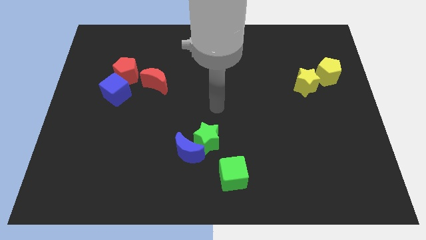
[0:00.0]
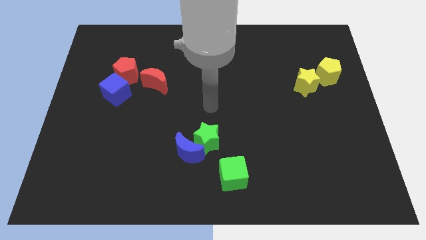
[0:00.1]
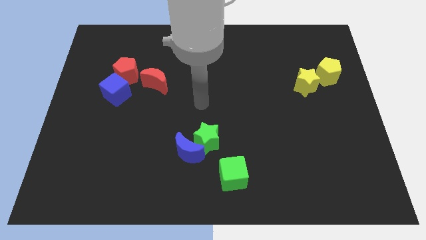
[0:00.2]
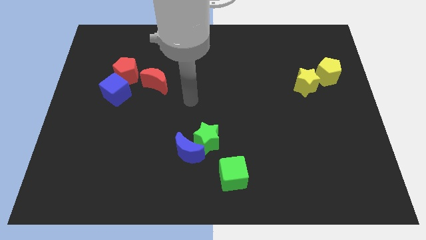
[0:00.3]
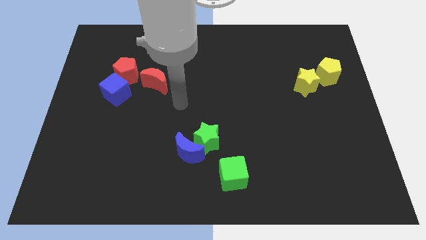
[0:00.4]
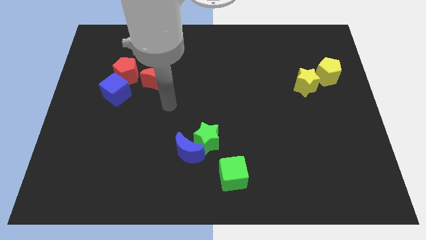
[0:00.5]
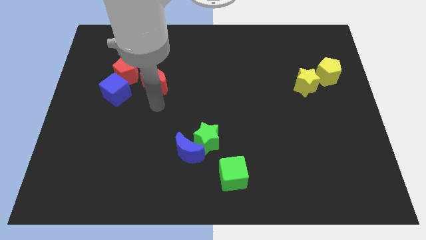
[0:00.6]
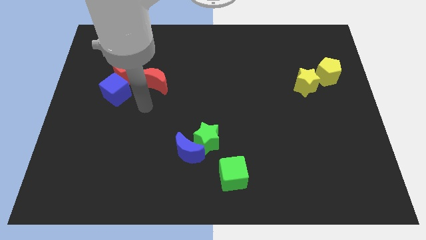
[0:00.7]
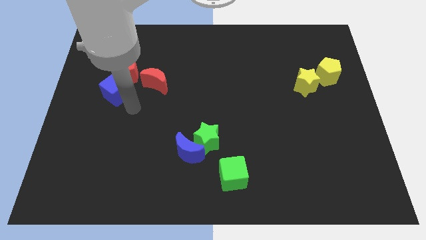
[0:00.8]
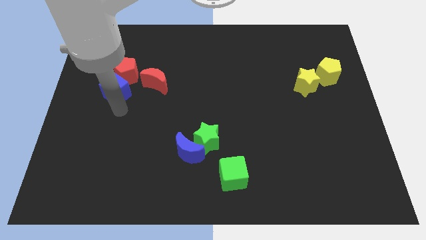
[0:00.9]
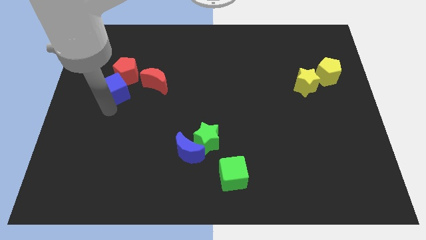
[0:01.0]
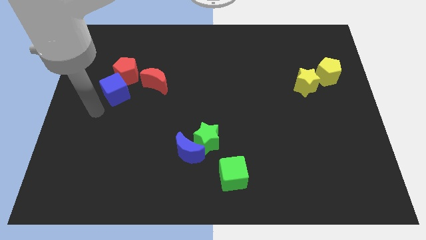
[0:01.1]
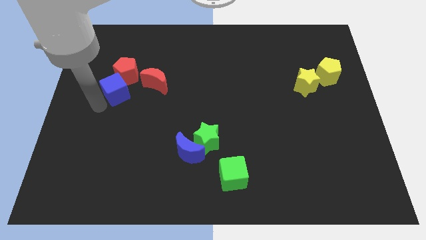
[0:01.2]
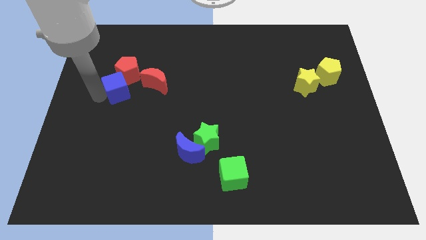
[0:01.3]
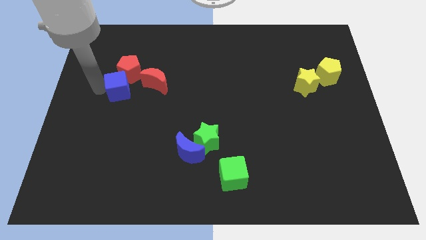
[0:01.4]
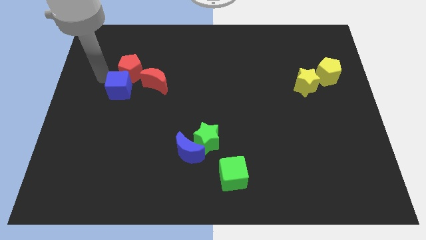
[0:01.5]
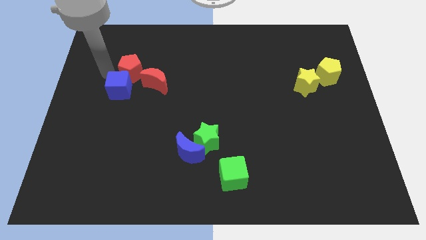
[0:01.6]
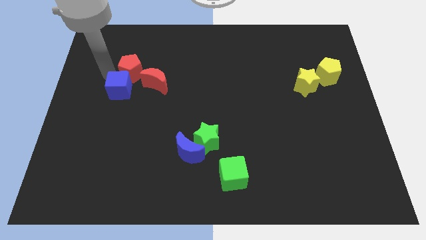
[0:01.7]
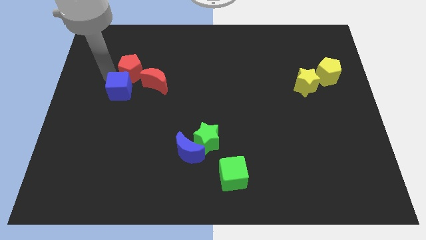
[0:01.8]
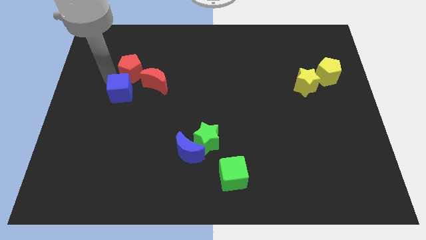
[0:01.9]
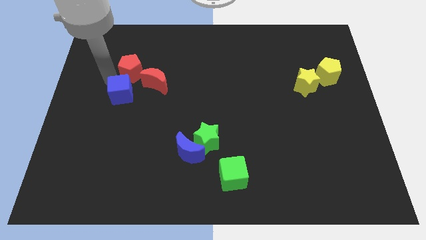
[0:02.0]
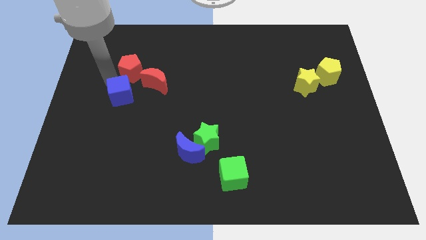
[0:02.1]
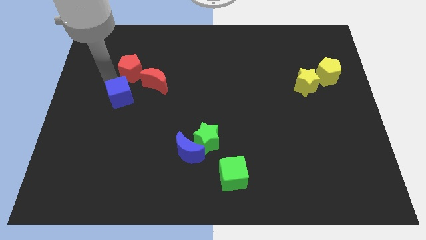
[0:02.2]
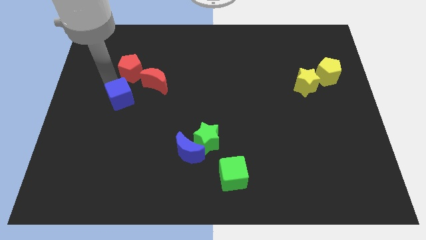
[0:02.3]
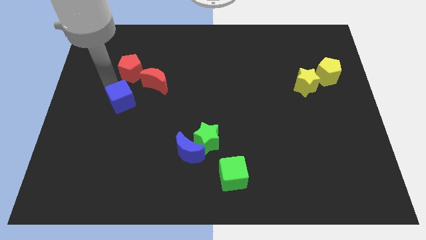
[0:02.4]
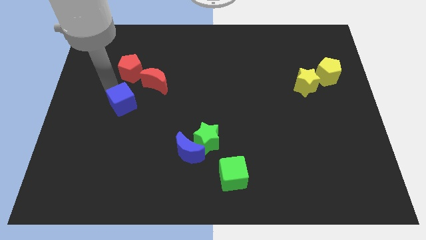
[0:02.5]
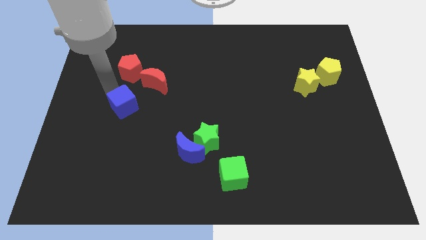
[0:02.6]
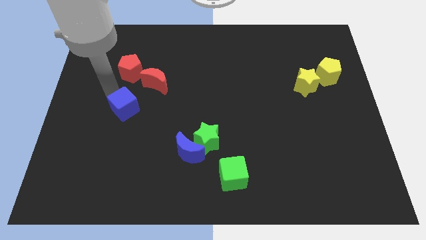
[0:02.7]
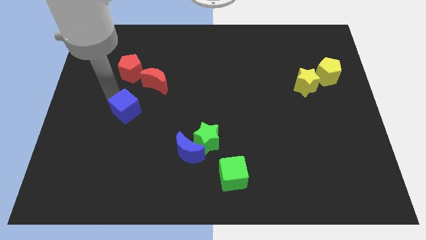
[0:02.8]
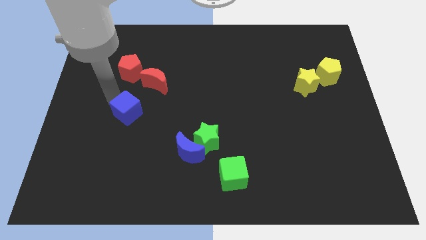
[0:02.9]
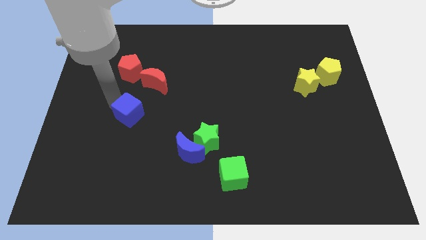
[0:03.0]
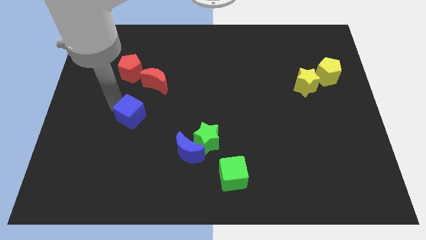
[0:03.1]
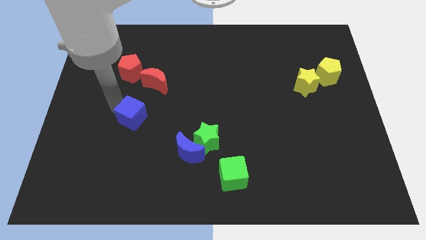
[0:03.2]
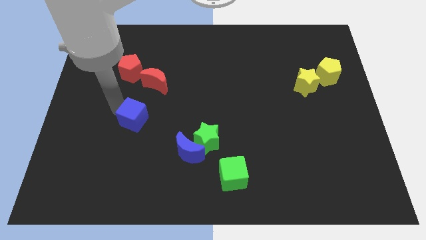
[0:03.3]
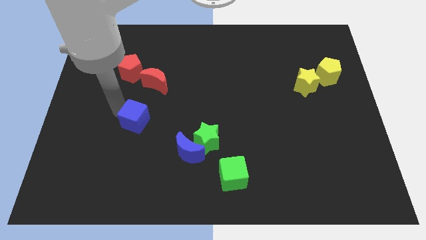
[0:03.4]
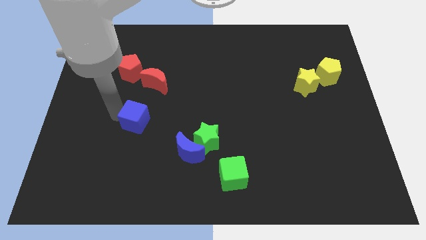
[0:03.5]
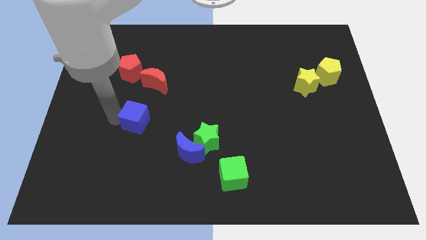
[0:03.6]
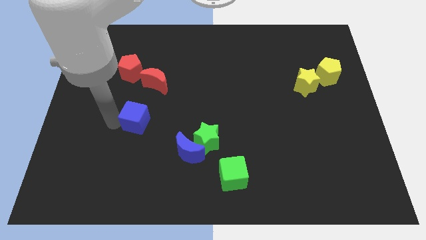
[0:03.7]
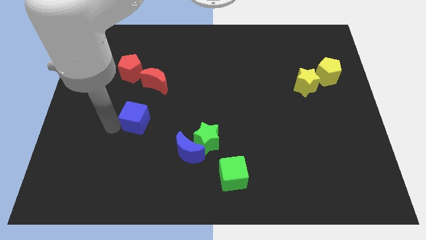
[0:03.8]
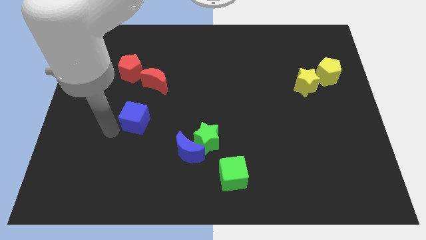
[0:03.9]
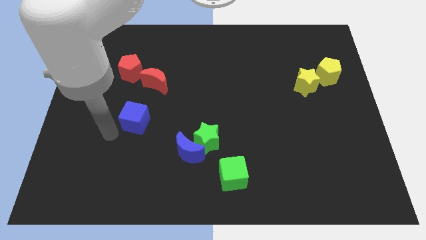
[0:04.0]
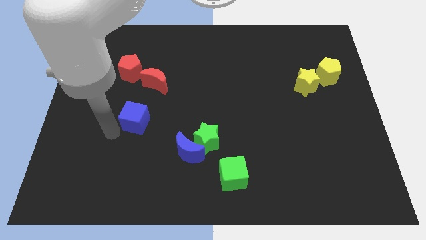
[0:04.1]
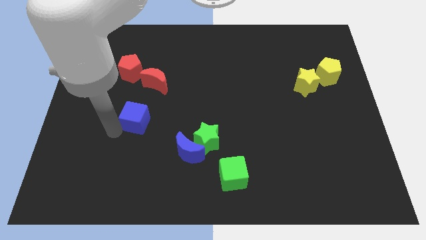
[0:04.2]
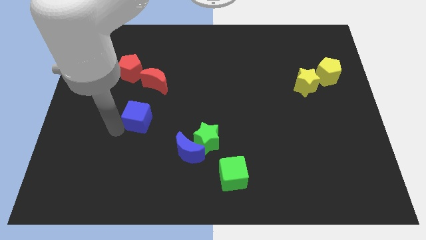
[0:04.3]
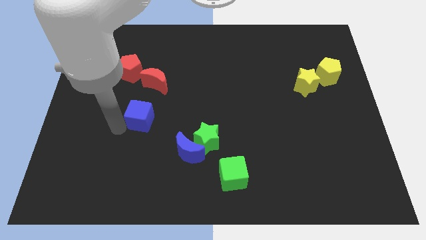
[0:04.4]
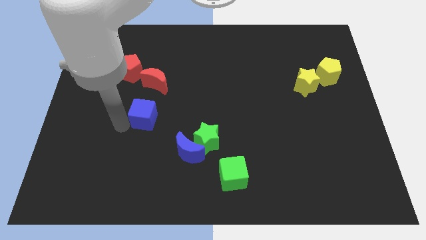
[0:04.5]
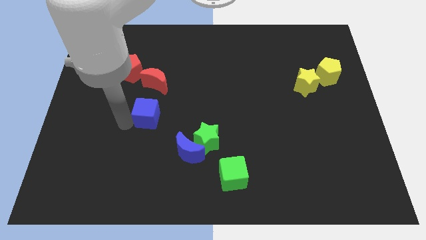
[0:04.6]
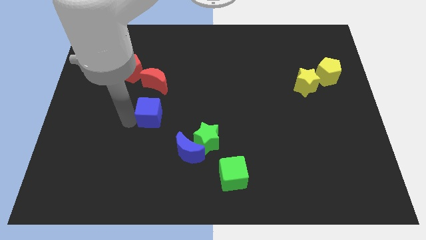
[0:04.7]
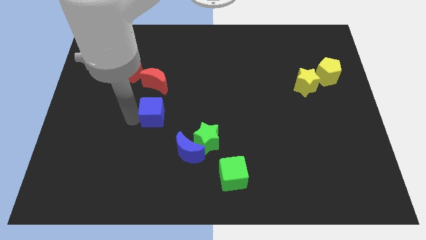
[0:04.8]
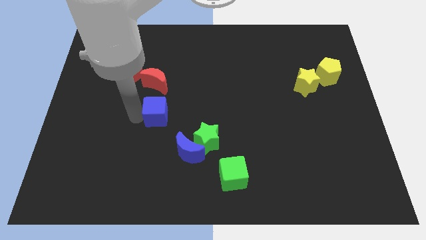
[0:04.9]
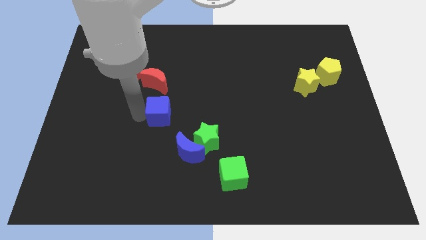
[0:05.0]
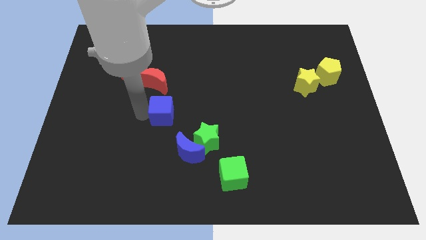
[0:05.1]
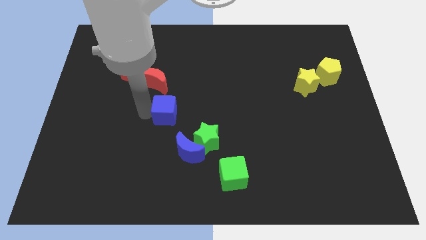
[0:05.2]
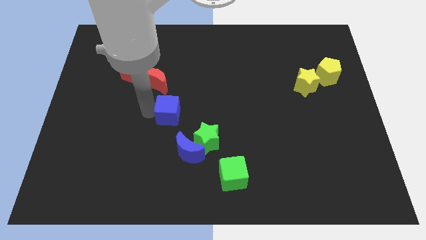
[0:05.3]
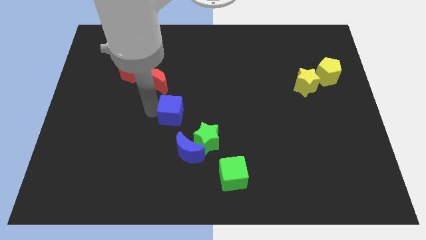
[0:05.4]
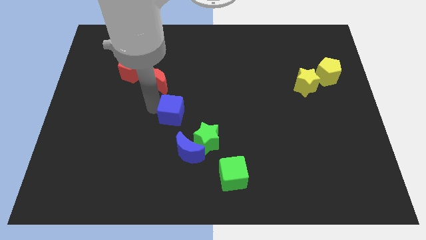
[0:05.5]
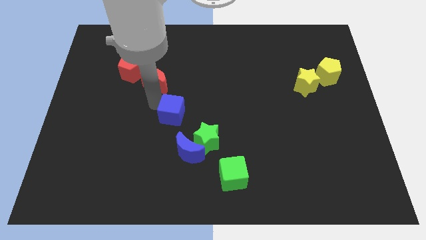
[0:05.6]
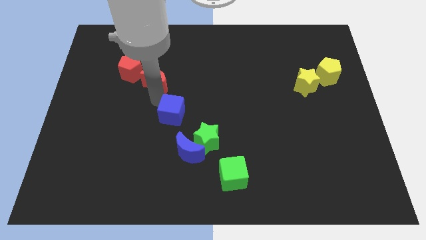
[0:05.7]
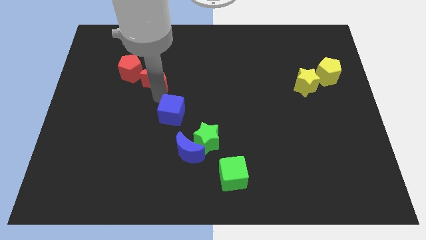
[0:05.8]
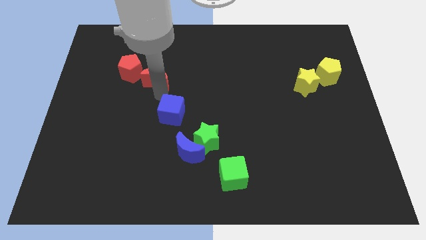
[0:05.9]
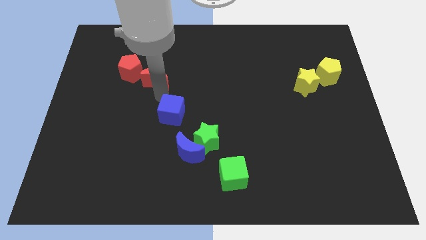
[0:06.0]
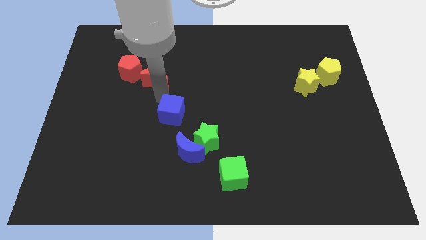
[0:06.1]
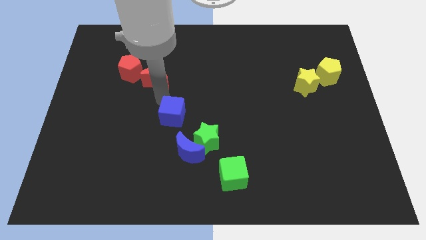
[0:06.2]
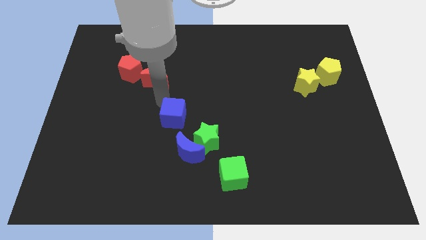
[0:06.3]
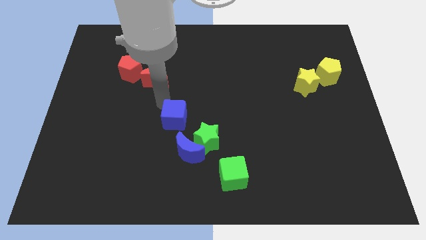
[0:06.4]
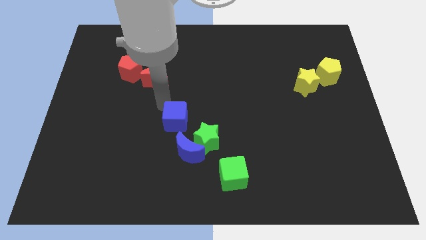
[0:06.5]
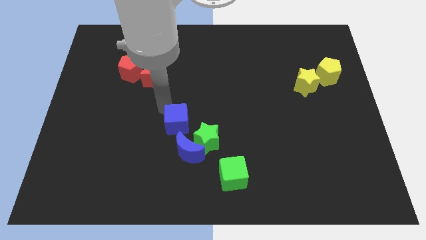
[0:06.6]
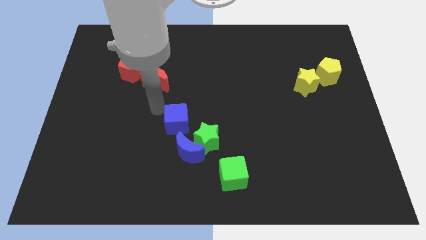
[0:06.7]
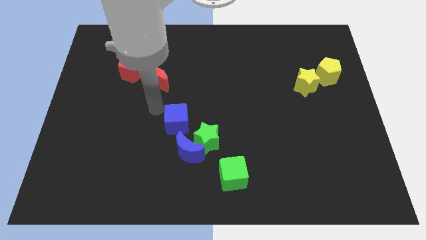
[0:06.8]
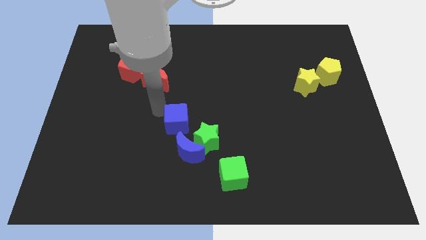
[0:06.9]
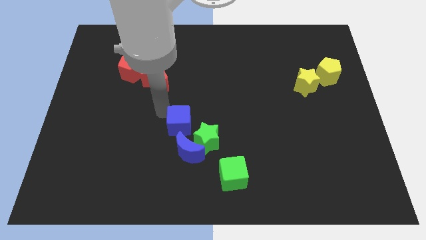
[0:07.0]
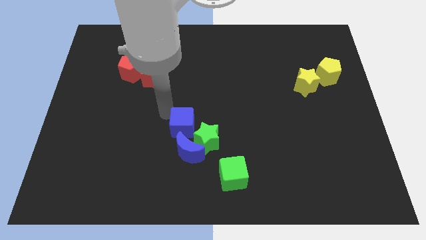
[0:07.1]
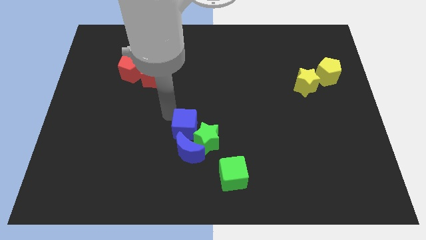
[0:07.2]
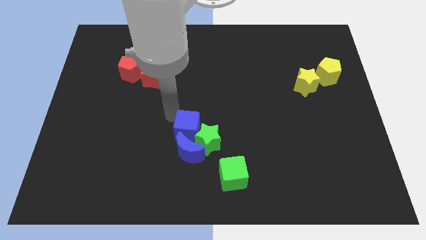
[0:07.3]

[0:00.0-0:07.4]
slide the blue cube towards the green star
